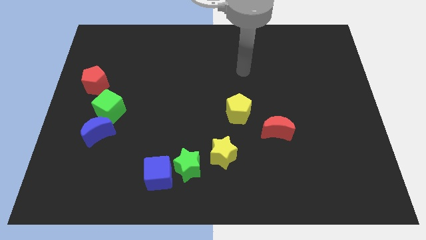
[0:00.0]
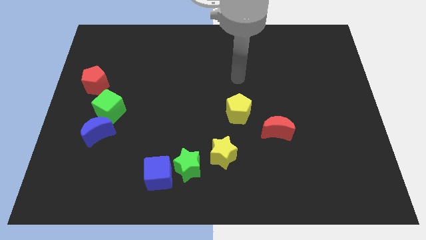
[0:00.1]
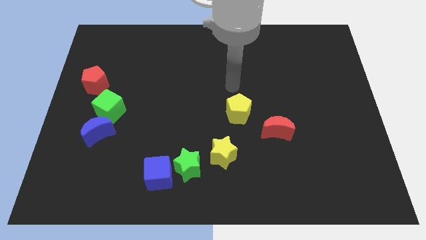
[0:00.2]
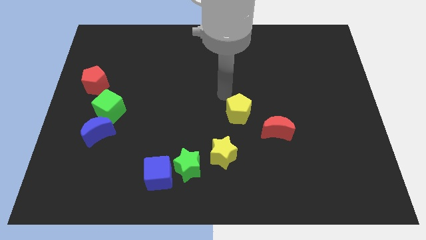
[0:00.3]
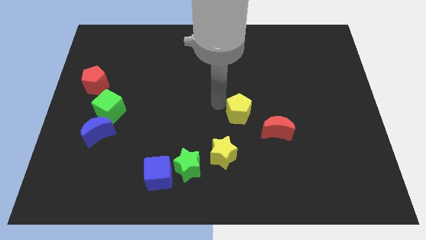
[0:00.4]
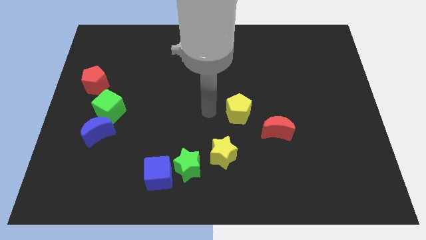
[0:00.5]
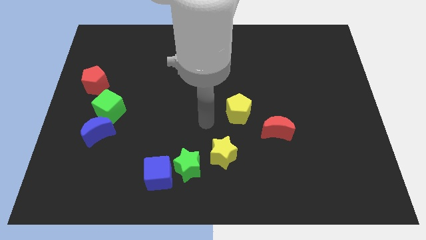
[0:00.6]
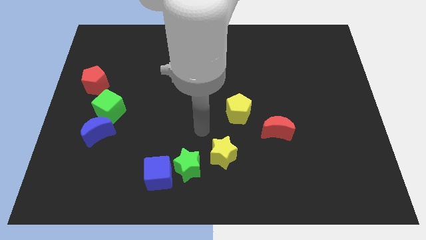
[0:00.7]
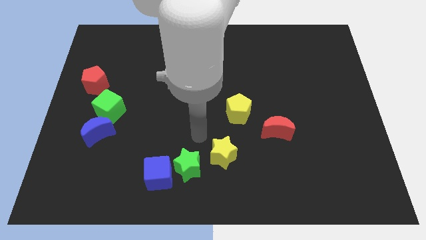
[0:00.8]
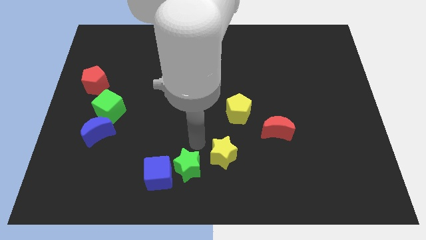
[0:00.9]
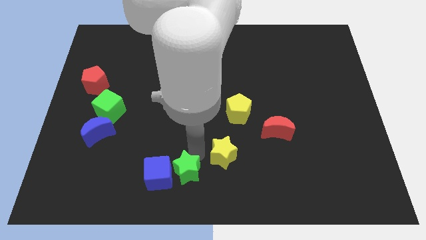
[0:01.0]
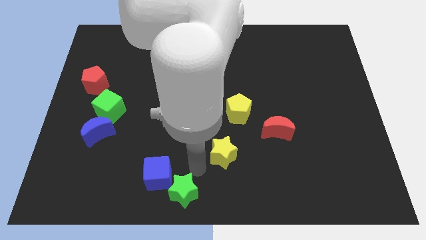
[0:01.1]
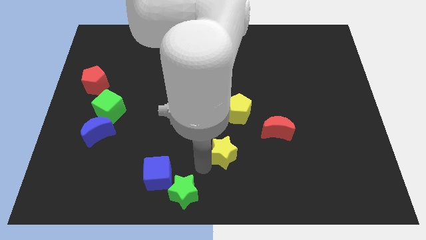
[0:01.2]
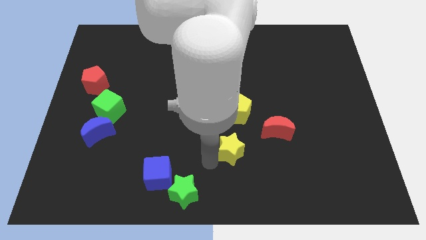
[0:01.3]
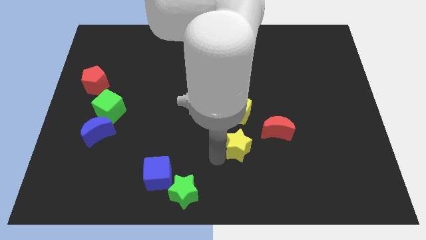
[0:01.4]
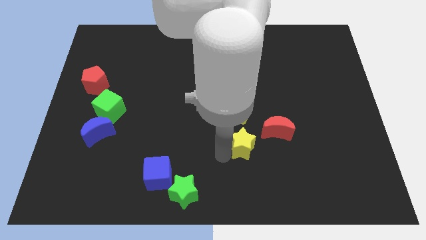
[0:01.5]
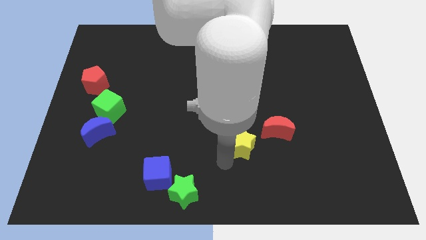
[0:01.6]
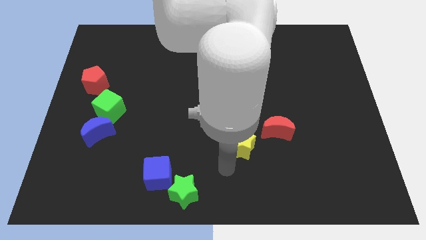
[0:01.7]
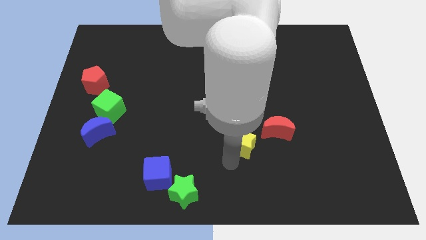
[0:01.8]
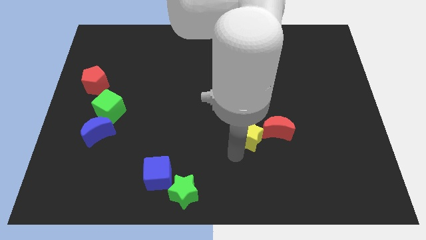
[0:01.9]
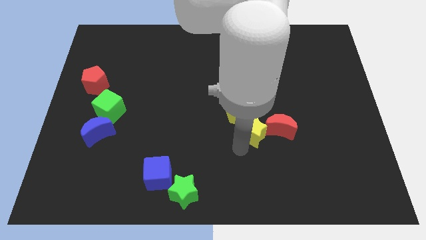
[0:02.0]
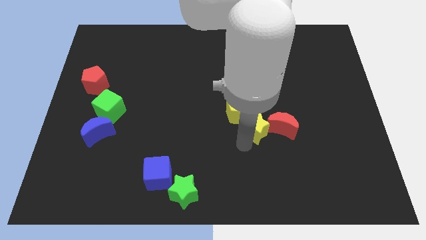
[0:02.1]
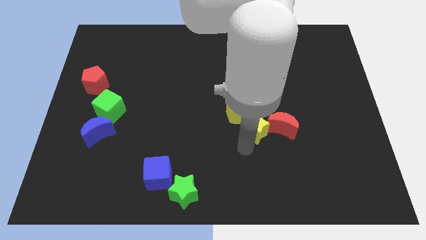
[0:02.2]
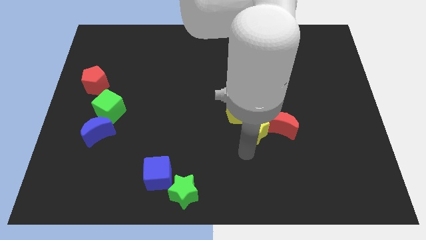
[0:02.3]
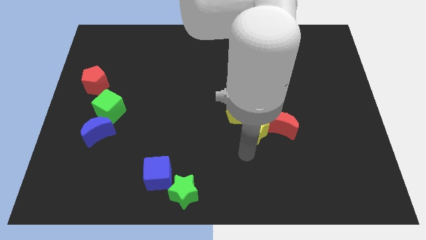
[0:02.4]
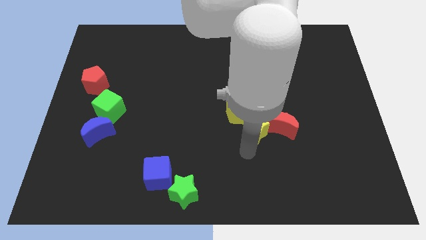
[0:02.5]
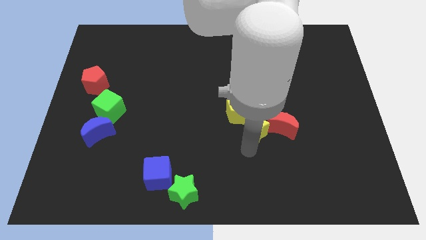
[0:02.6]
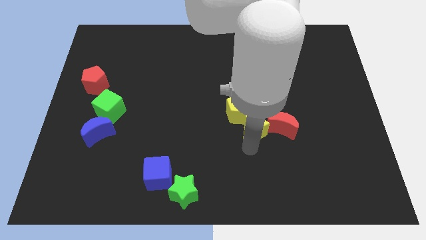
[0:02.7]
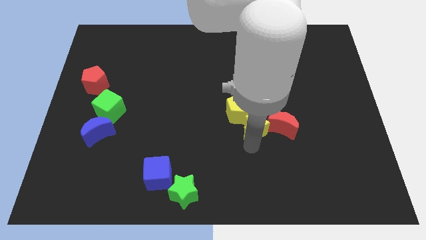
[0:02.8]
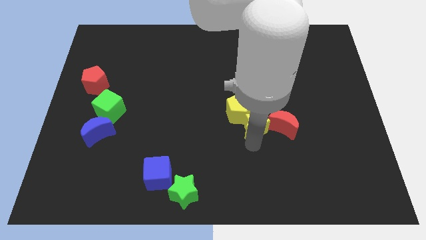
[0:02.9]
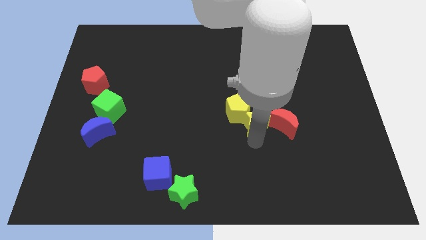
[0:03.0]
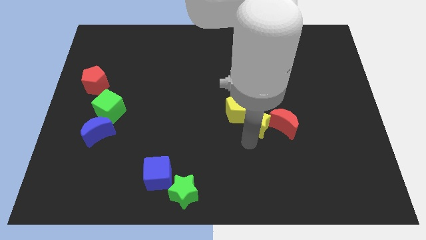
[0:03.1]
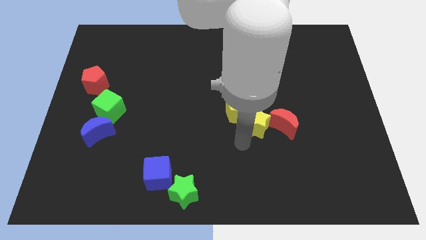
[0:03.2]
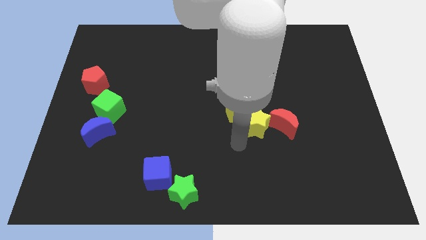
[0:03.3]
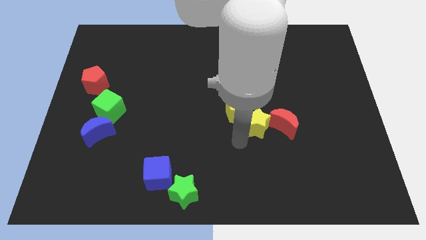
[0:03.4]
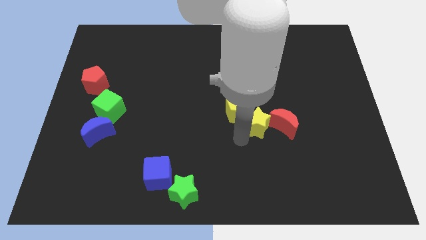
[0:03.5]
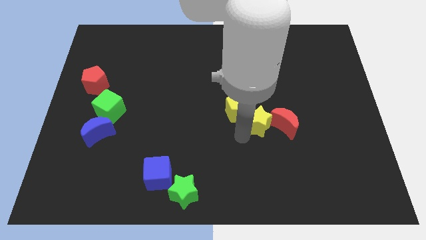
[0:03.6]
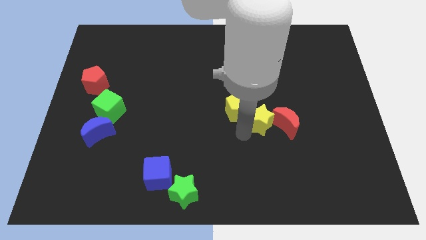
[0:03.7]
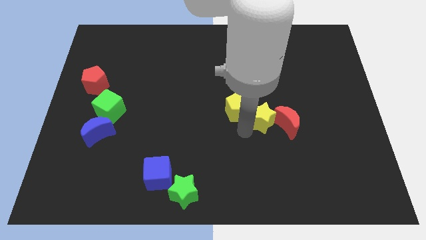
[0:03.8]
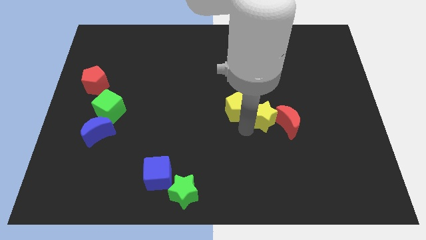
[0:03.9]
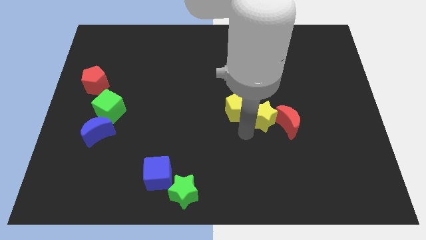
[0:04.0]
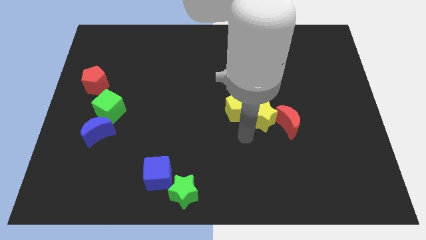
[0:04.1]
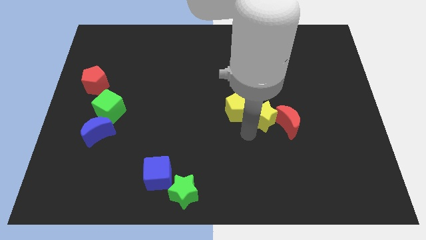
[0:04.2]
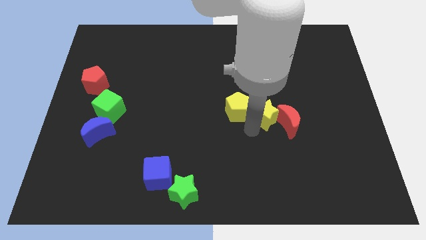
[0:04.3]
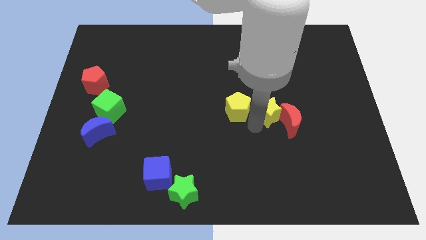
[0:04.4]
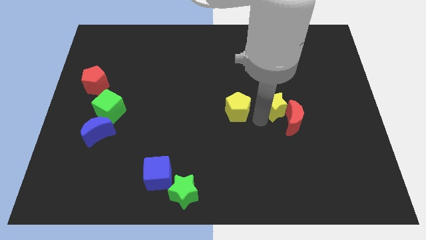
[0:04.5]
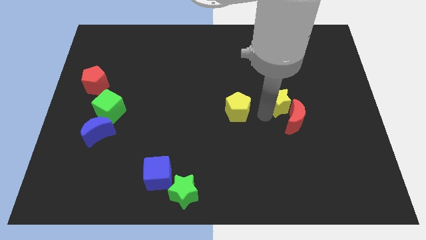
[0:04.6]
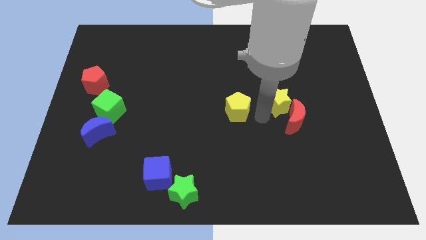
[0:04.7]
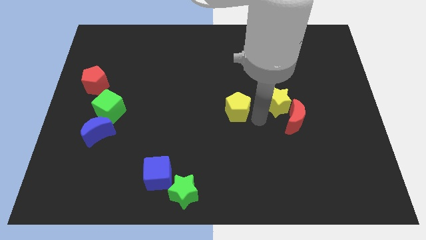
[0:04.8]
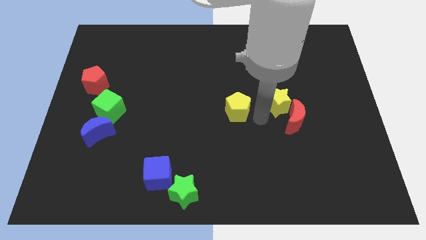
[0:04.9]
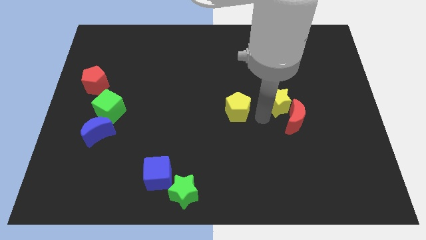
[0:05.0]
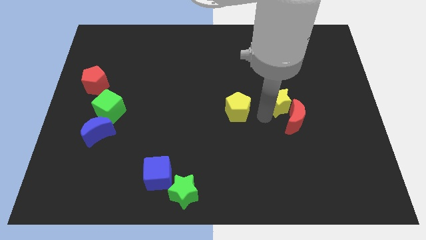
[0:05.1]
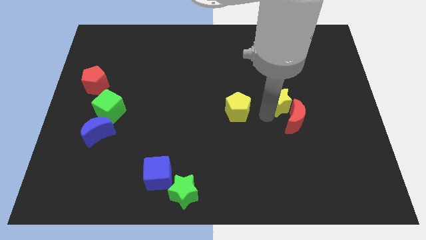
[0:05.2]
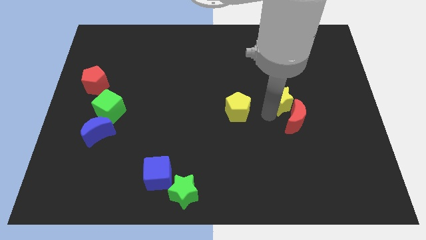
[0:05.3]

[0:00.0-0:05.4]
move the yellow star upwards and right

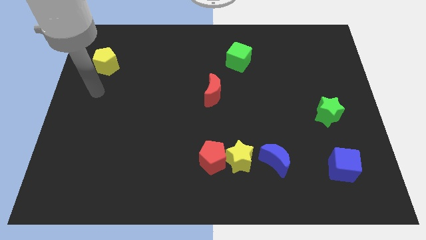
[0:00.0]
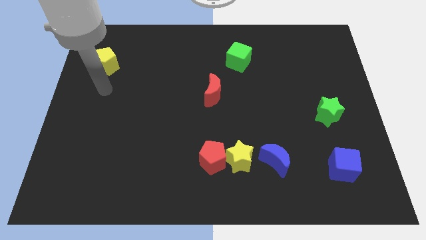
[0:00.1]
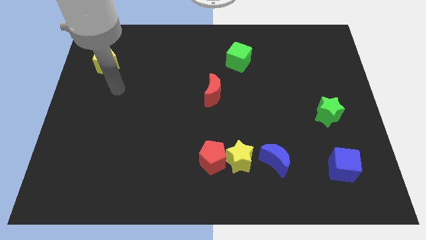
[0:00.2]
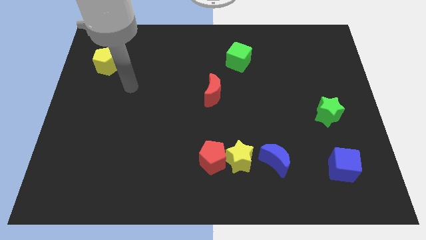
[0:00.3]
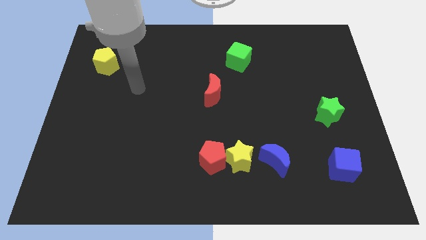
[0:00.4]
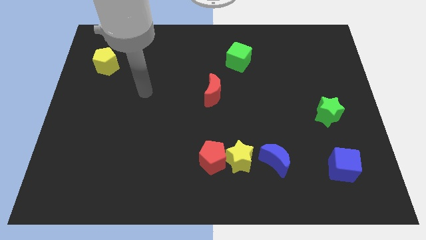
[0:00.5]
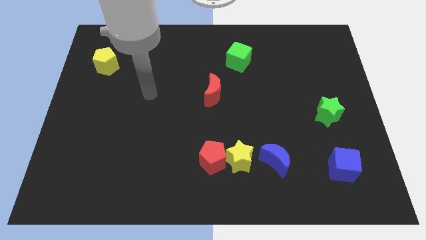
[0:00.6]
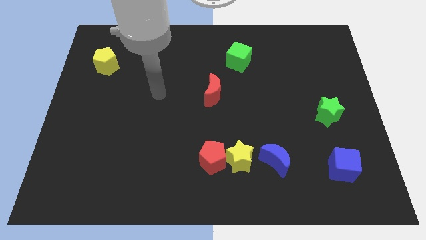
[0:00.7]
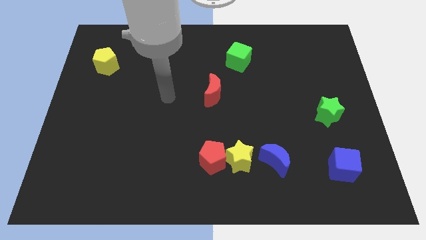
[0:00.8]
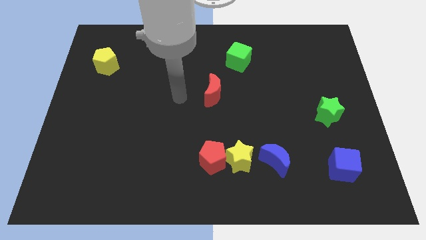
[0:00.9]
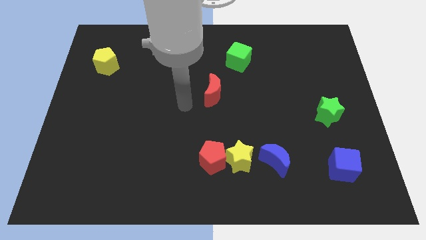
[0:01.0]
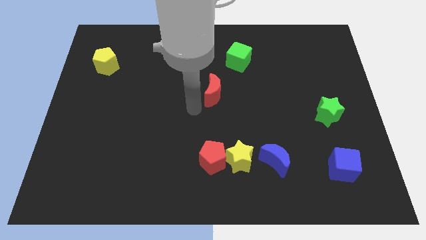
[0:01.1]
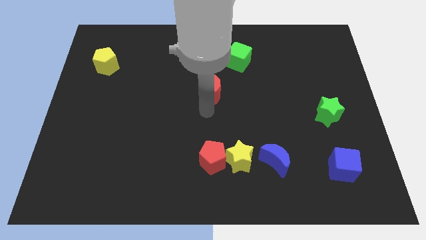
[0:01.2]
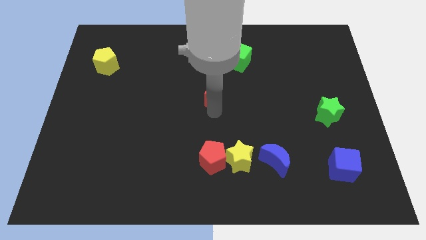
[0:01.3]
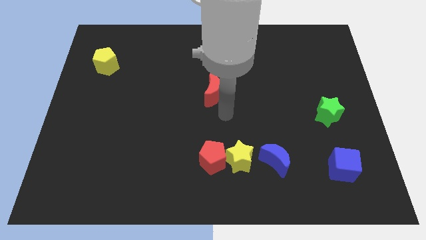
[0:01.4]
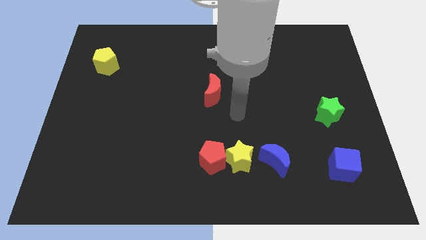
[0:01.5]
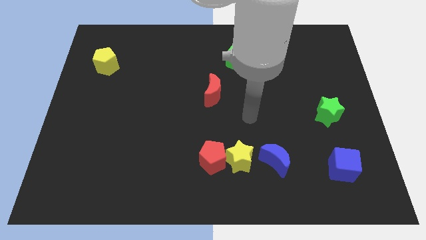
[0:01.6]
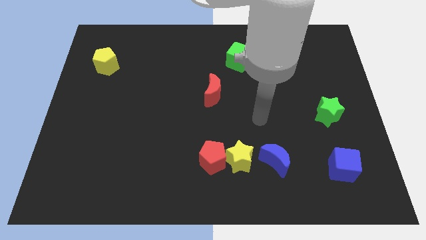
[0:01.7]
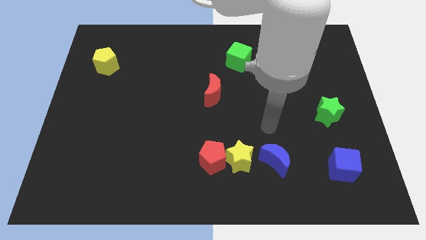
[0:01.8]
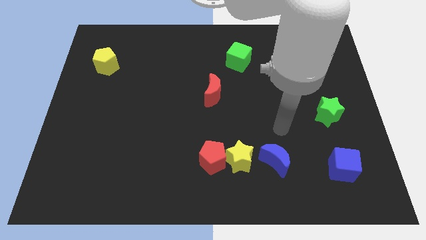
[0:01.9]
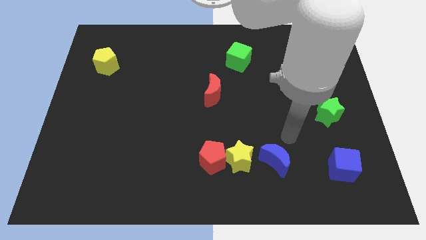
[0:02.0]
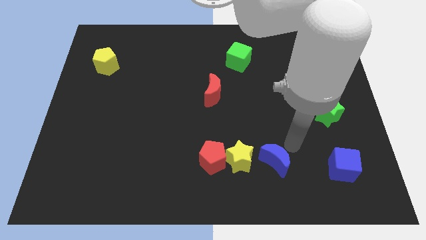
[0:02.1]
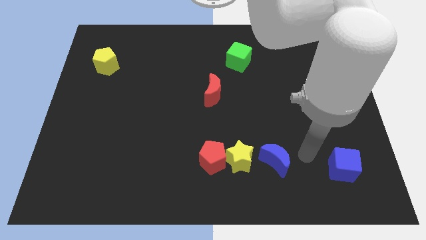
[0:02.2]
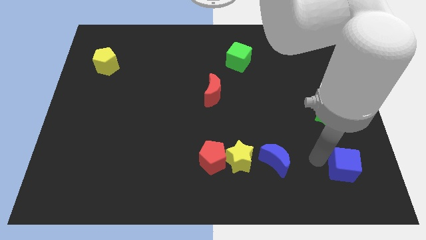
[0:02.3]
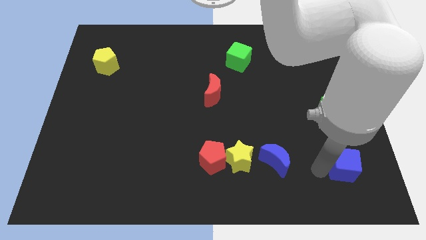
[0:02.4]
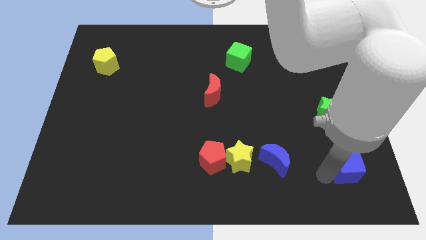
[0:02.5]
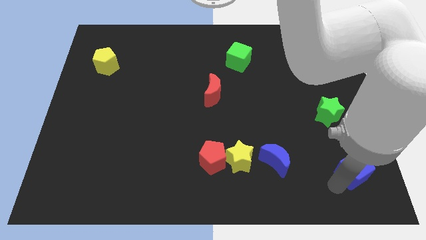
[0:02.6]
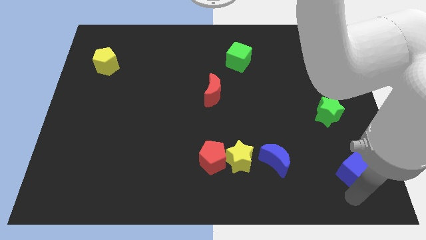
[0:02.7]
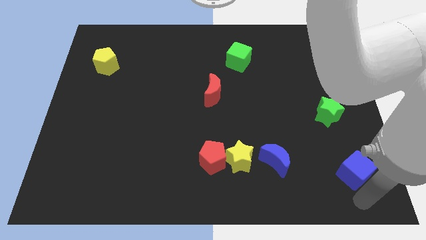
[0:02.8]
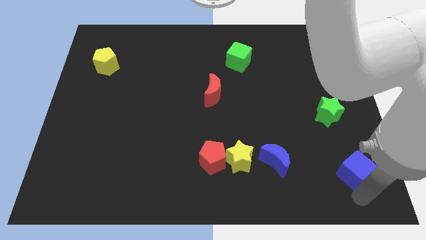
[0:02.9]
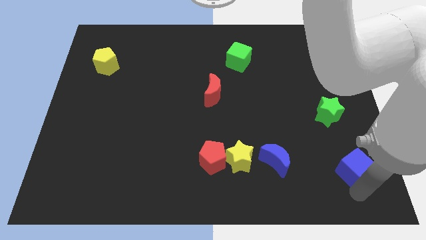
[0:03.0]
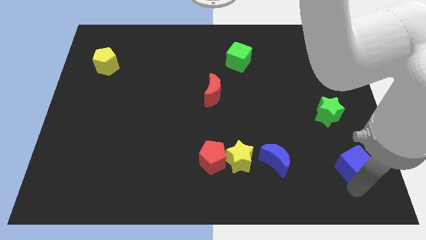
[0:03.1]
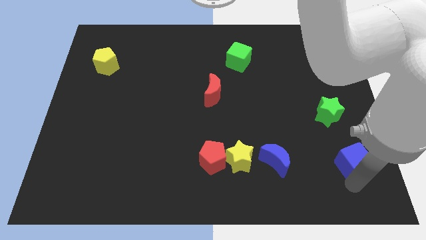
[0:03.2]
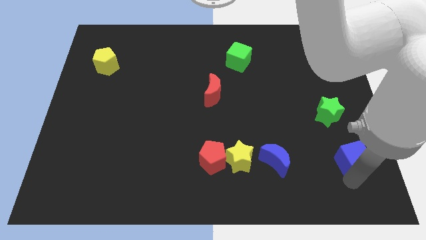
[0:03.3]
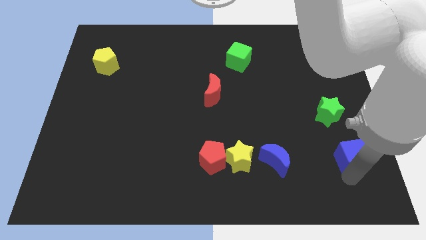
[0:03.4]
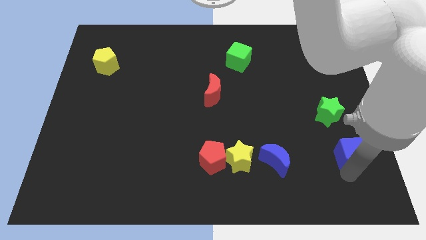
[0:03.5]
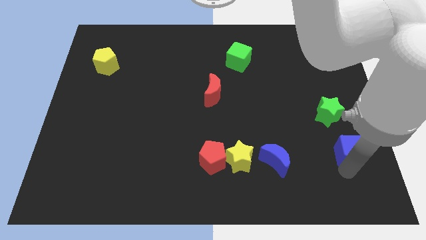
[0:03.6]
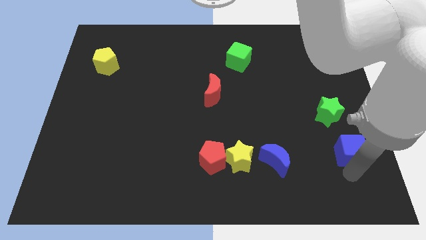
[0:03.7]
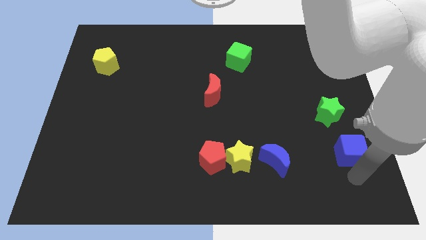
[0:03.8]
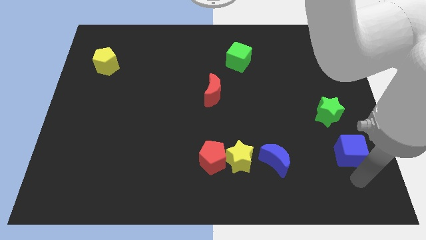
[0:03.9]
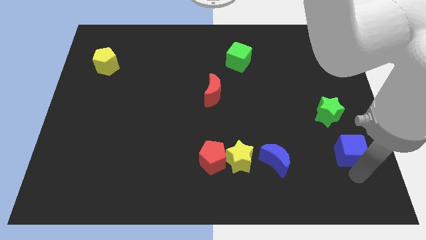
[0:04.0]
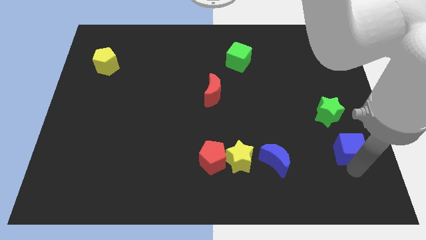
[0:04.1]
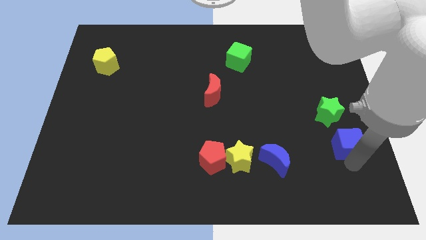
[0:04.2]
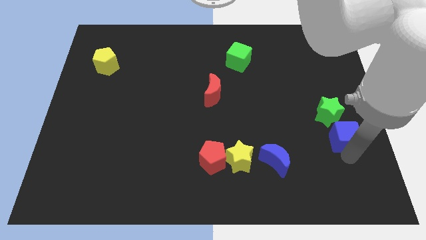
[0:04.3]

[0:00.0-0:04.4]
push the blue cube a bit upwards
